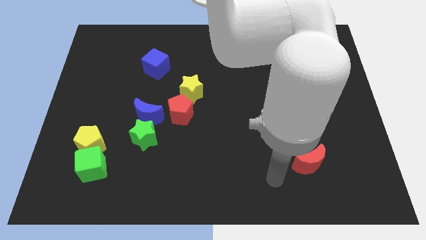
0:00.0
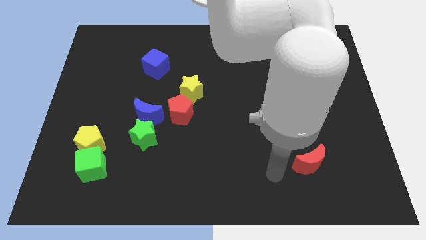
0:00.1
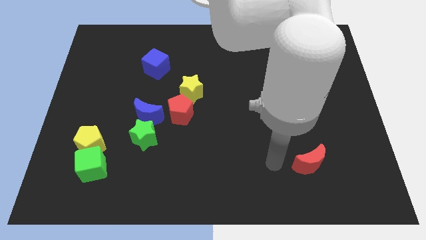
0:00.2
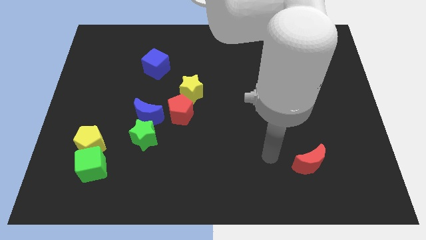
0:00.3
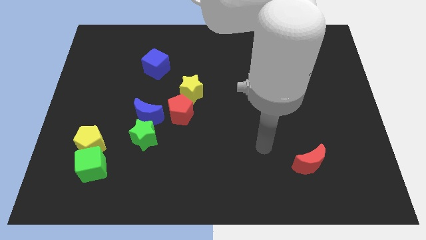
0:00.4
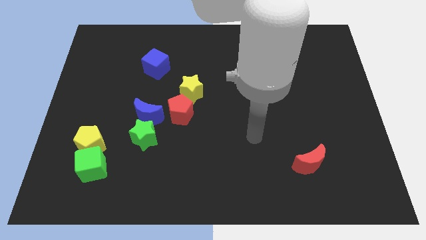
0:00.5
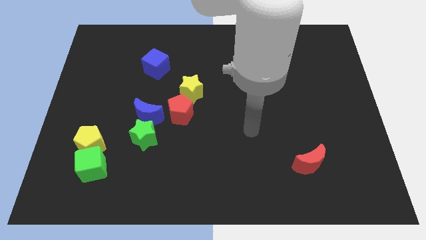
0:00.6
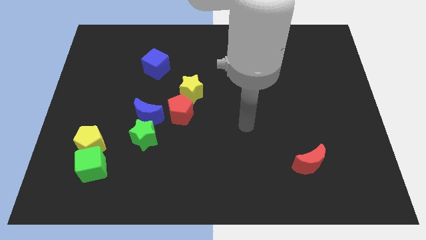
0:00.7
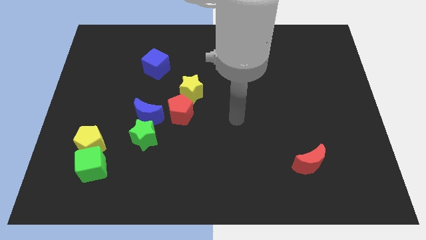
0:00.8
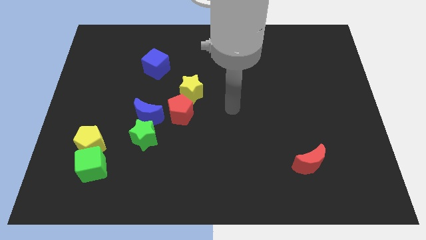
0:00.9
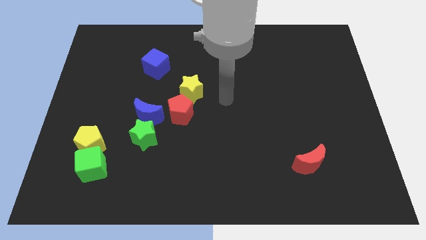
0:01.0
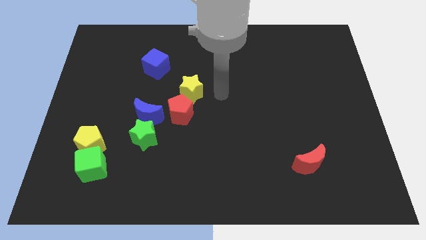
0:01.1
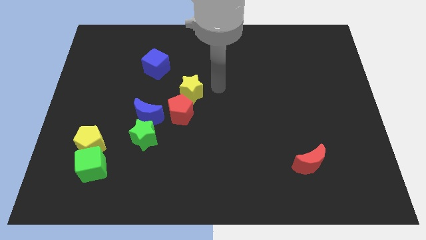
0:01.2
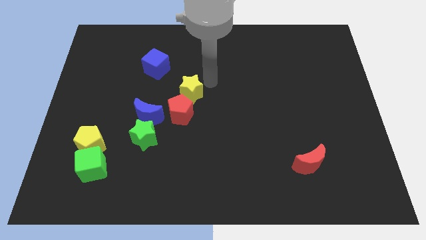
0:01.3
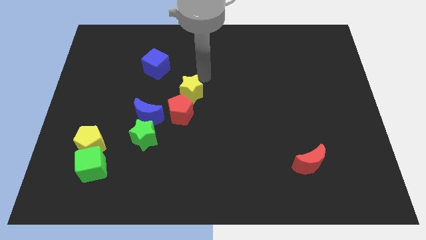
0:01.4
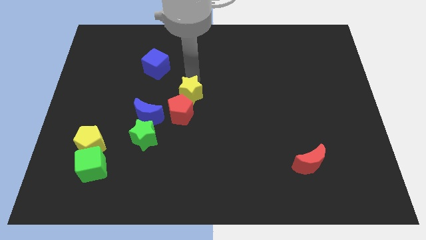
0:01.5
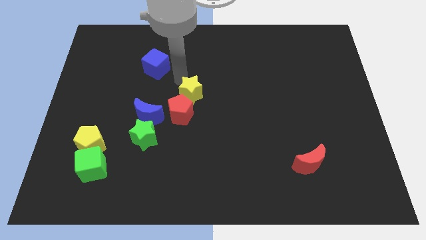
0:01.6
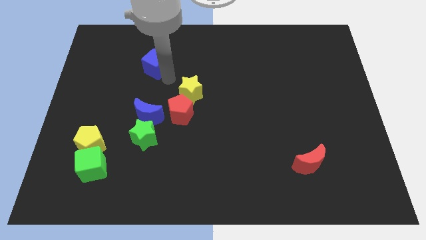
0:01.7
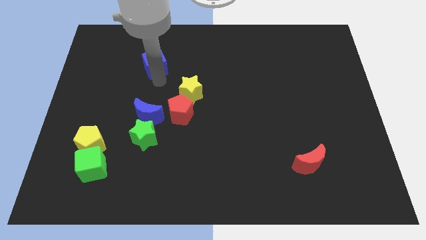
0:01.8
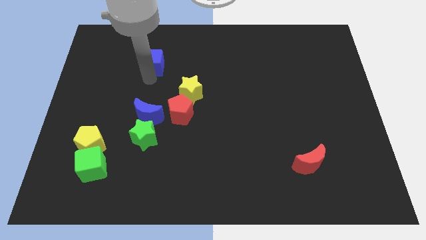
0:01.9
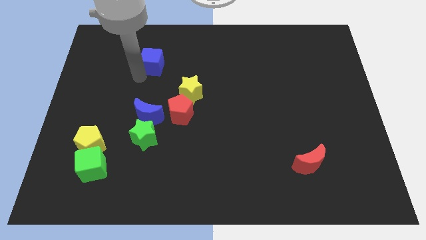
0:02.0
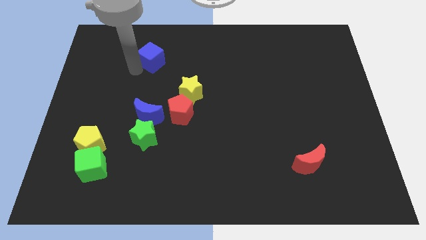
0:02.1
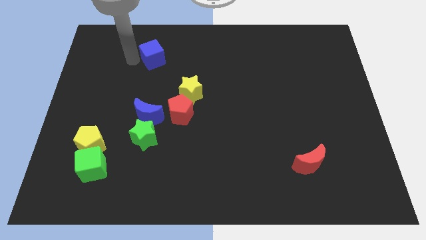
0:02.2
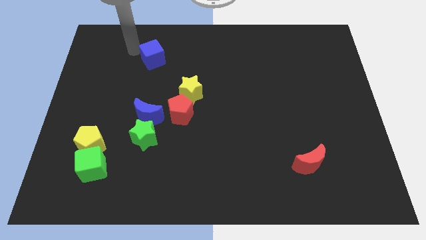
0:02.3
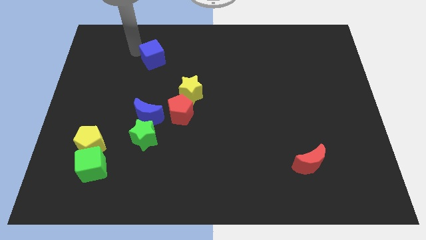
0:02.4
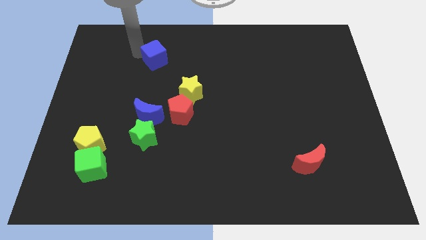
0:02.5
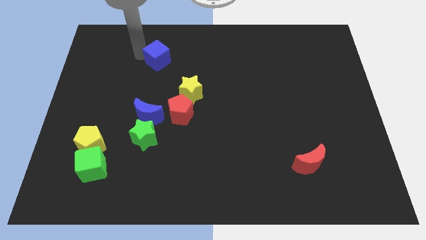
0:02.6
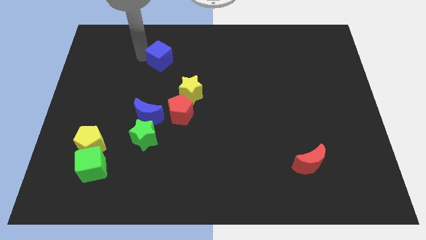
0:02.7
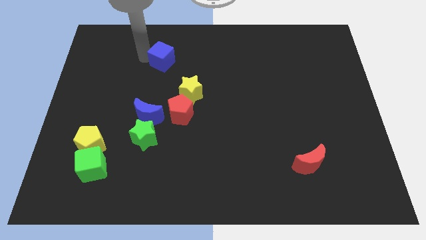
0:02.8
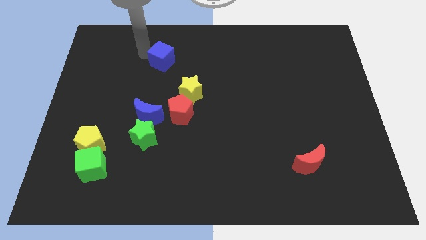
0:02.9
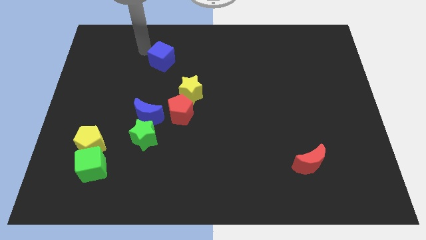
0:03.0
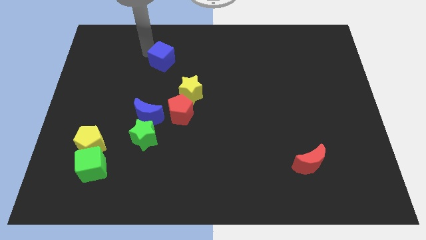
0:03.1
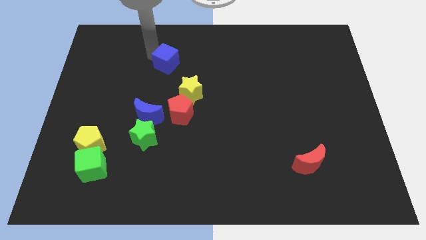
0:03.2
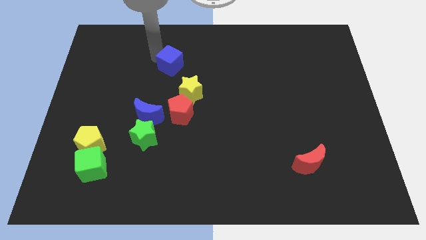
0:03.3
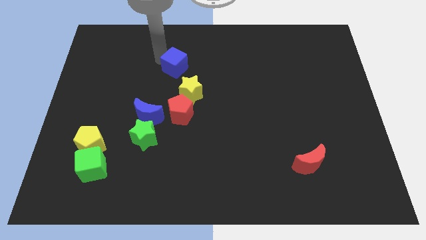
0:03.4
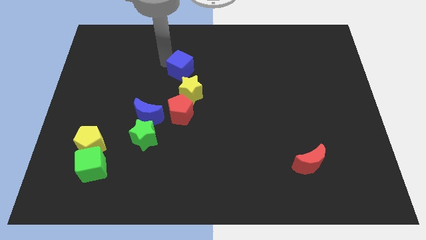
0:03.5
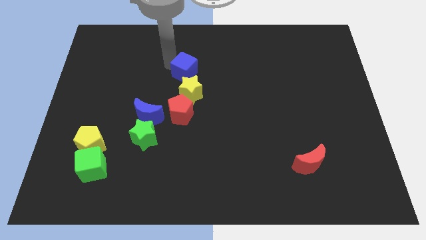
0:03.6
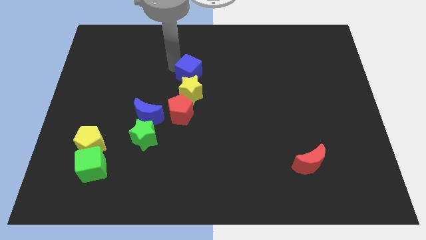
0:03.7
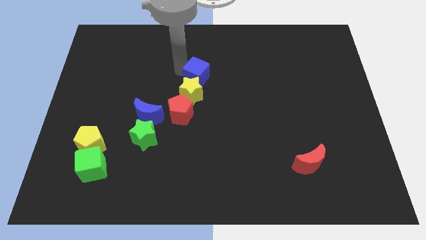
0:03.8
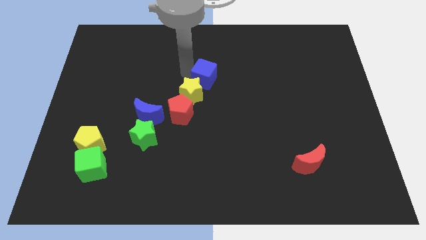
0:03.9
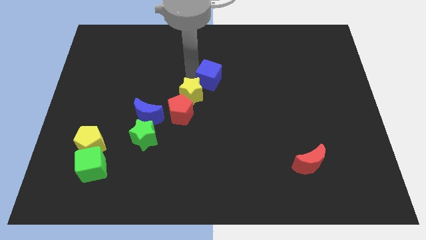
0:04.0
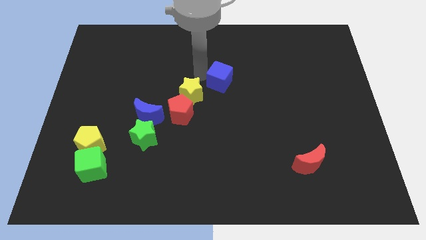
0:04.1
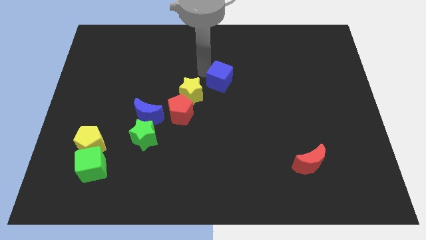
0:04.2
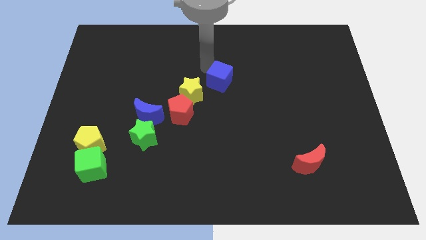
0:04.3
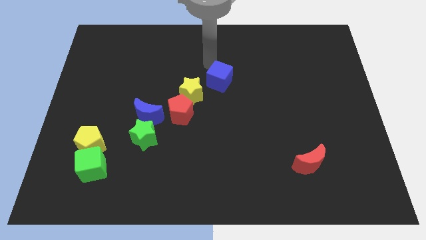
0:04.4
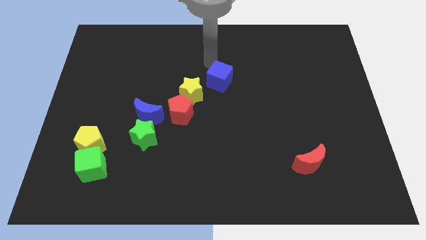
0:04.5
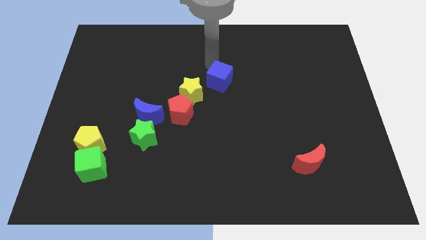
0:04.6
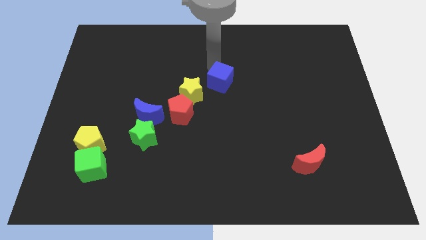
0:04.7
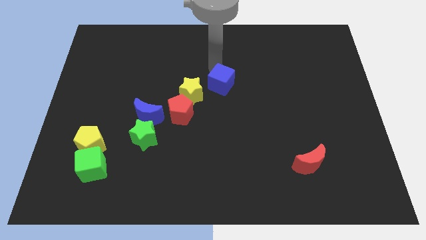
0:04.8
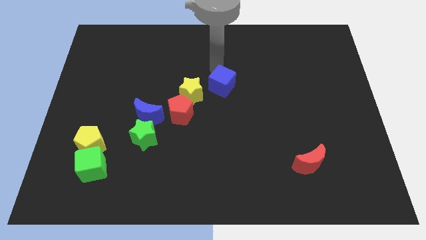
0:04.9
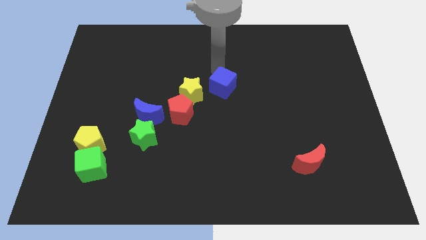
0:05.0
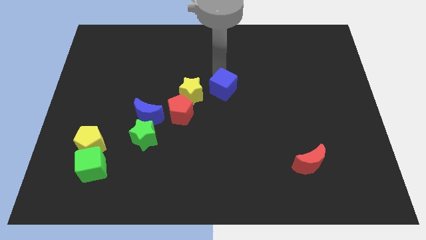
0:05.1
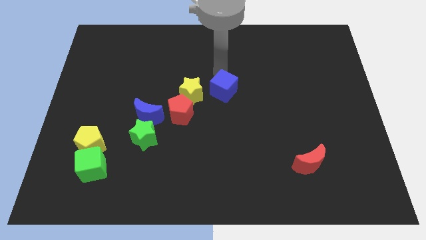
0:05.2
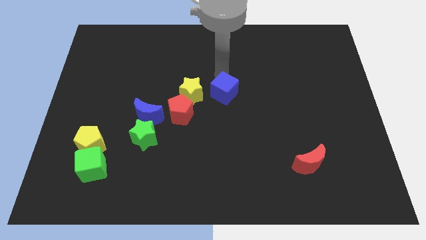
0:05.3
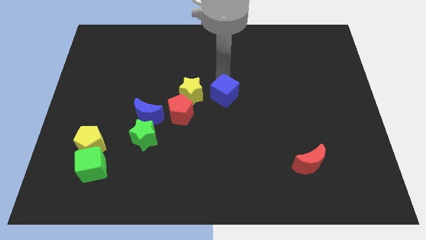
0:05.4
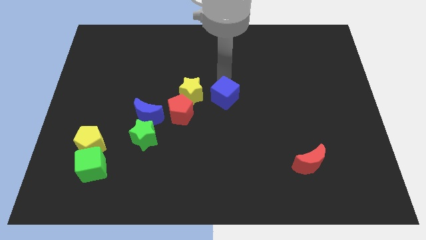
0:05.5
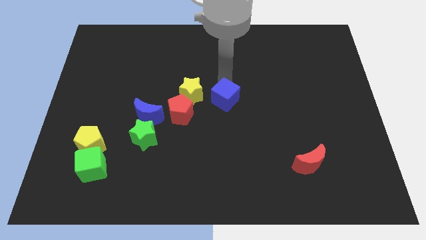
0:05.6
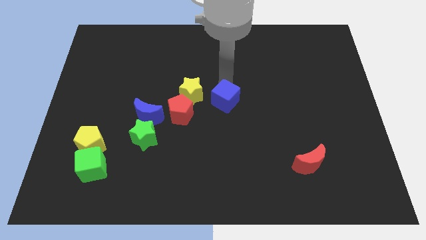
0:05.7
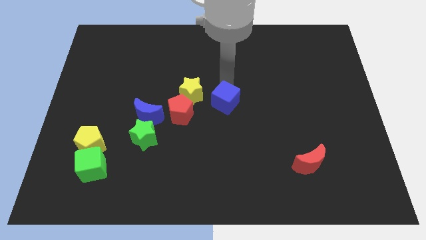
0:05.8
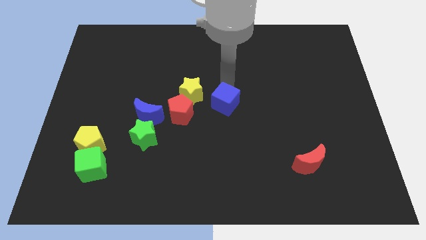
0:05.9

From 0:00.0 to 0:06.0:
move the blue cube downwards and right diagonally

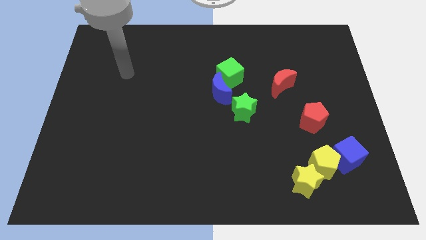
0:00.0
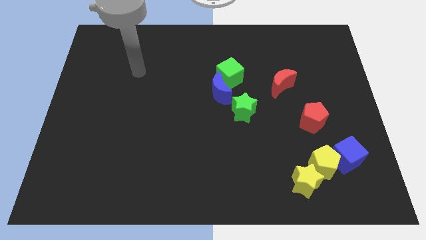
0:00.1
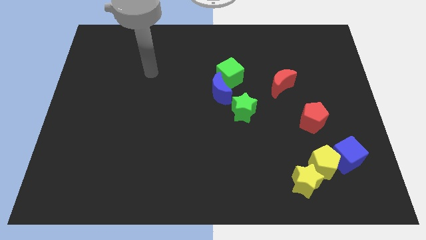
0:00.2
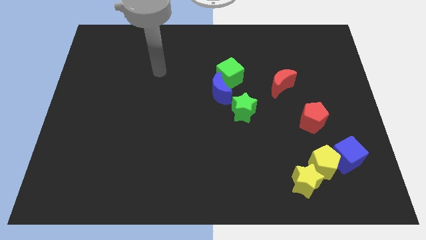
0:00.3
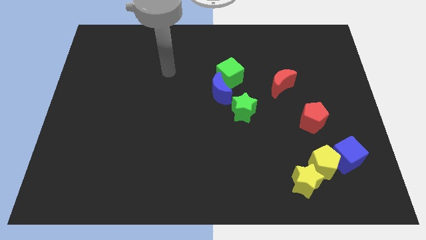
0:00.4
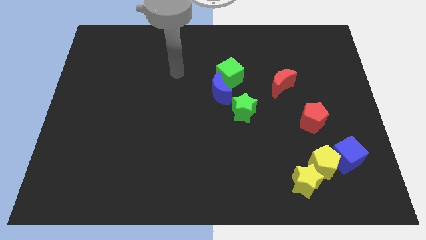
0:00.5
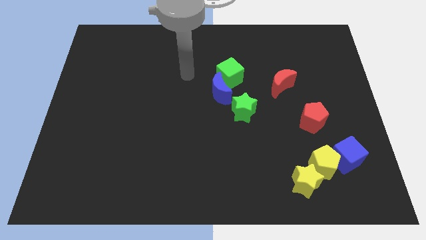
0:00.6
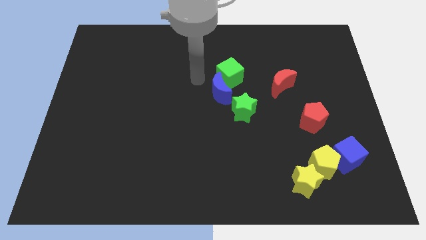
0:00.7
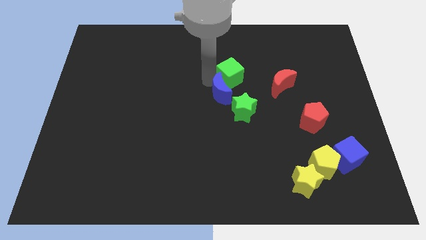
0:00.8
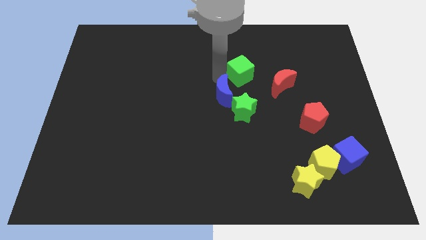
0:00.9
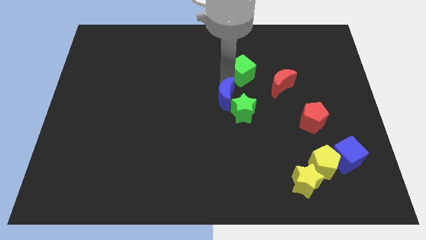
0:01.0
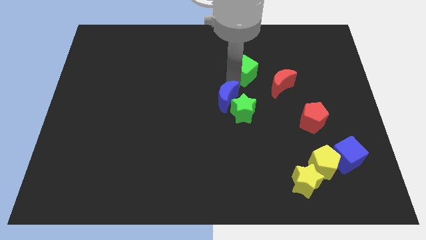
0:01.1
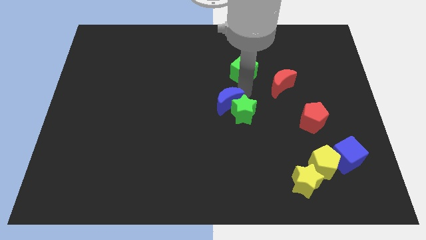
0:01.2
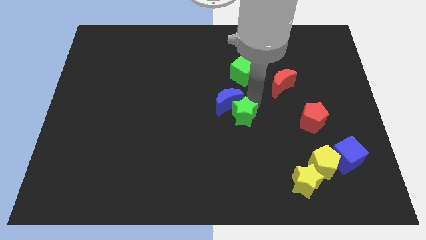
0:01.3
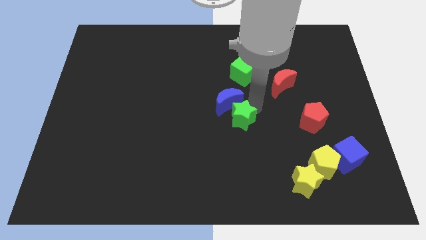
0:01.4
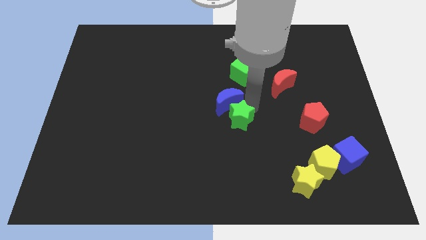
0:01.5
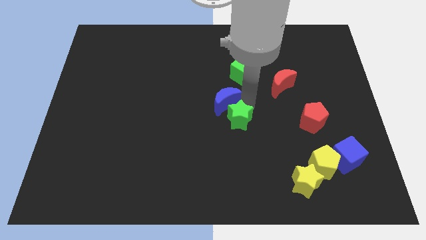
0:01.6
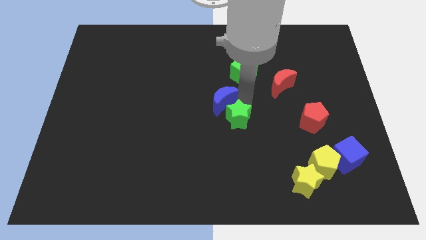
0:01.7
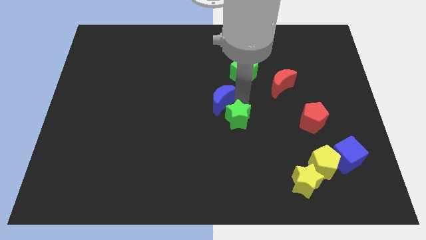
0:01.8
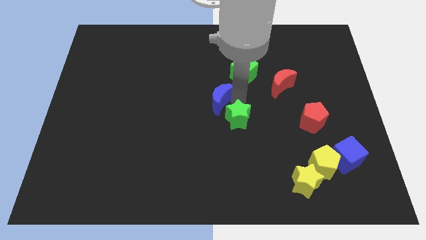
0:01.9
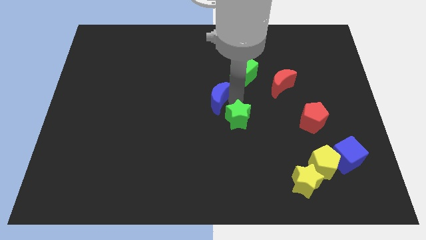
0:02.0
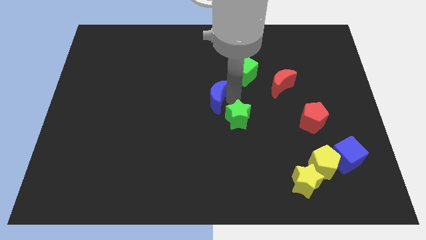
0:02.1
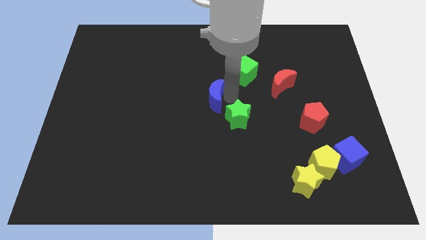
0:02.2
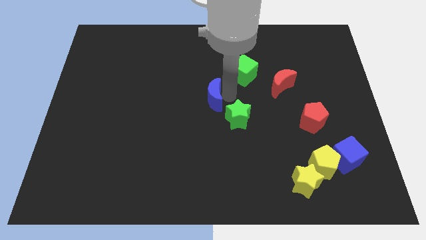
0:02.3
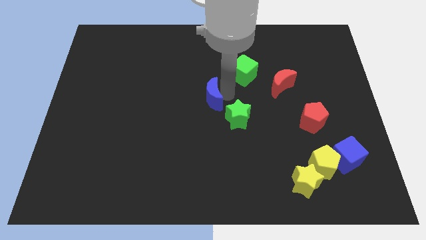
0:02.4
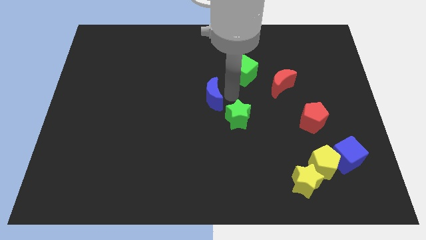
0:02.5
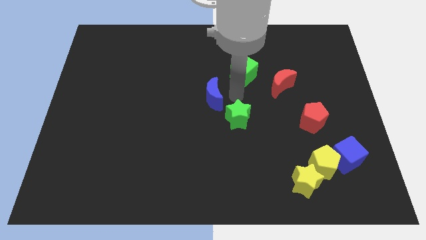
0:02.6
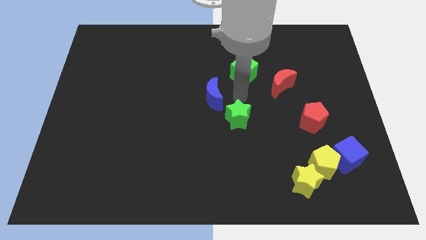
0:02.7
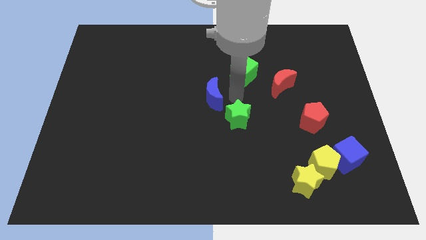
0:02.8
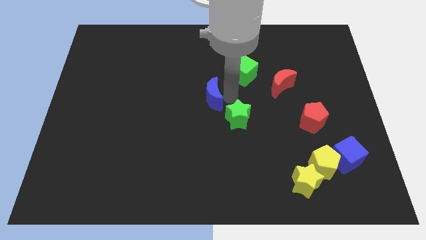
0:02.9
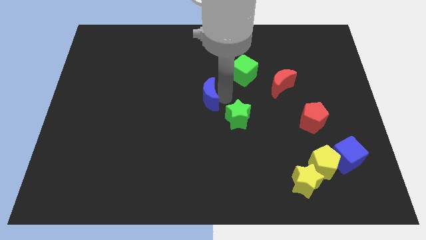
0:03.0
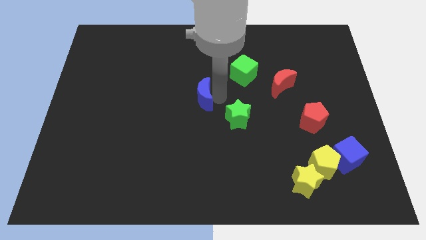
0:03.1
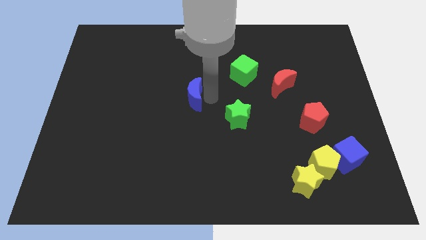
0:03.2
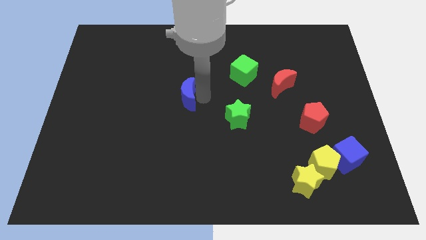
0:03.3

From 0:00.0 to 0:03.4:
slightly move the blue moon to the left
